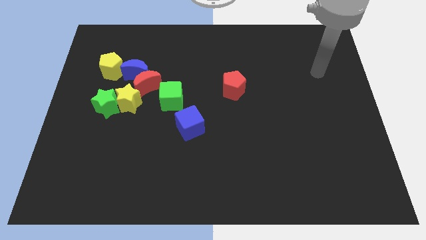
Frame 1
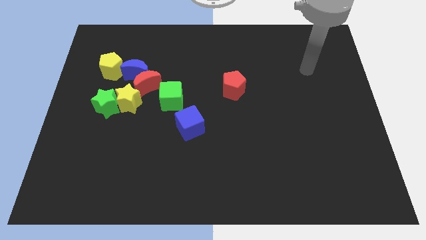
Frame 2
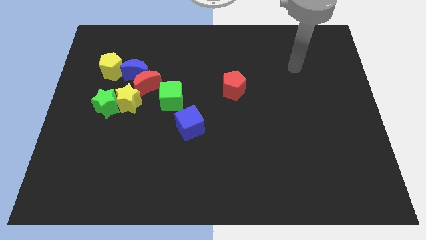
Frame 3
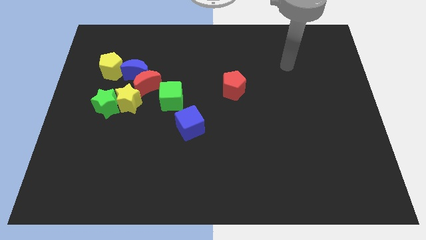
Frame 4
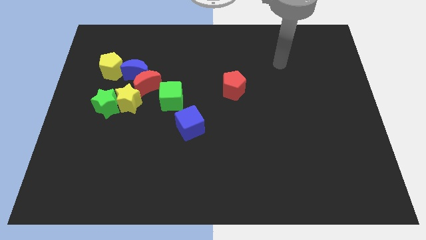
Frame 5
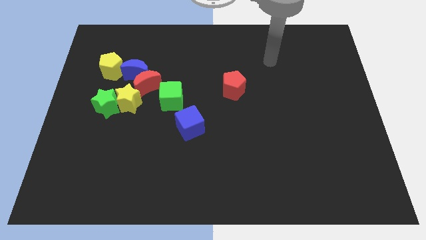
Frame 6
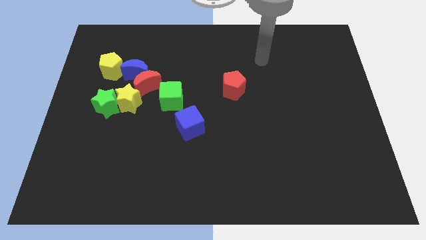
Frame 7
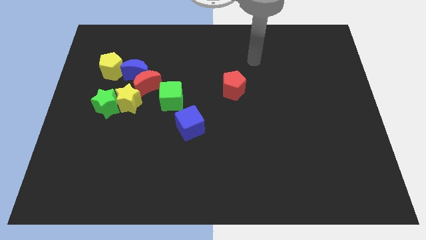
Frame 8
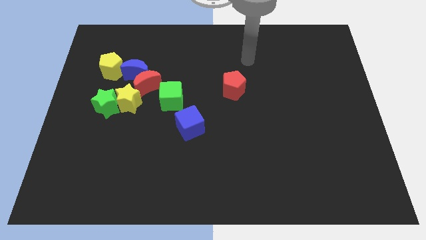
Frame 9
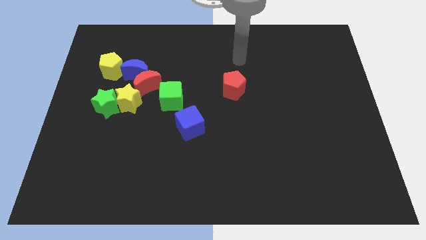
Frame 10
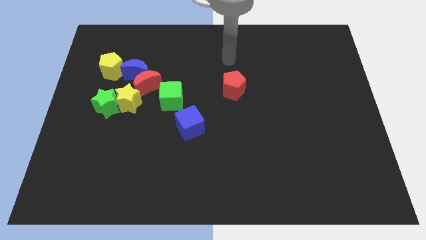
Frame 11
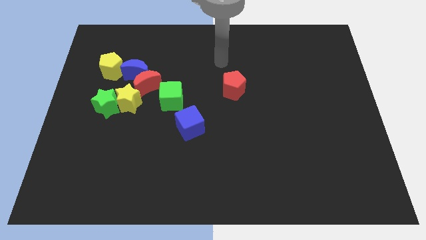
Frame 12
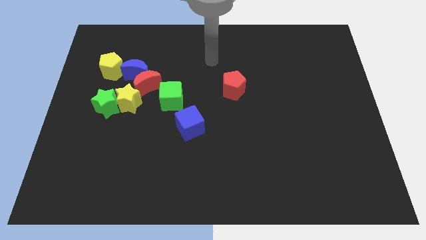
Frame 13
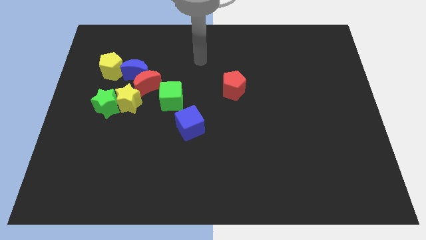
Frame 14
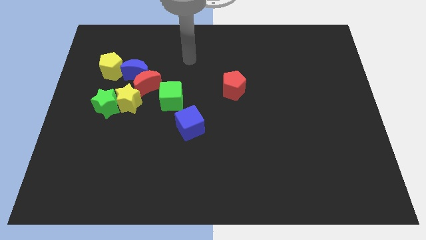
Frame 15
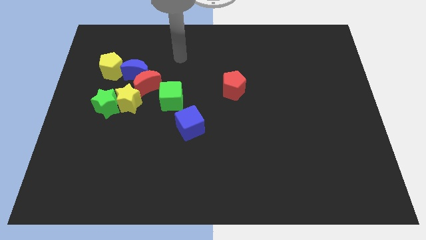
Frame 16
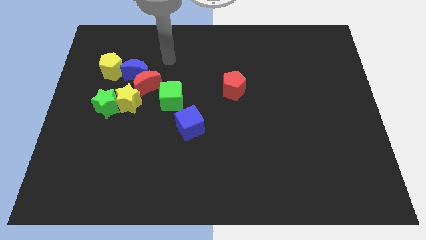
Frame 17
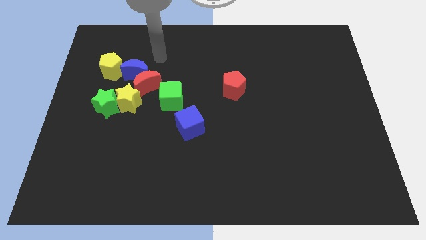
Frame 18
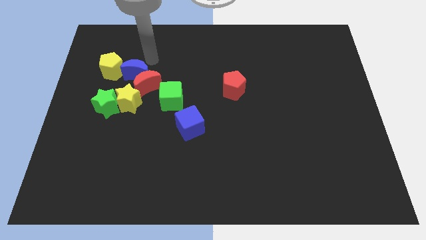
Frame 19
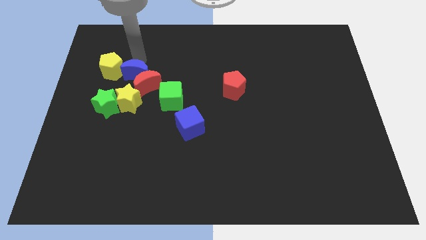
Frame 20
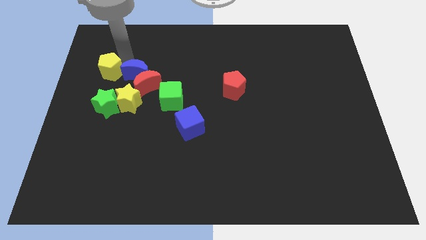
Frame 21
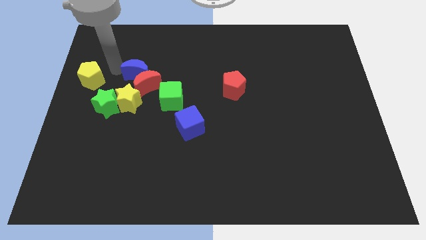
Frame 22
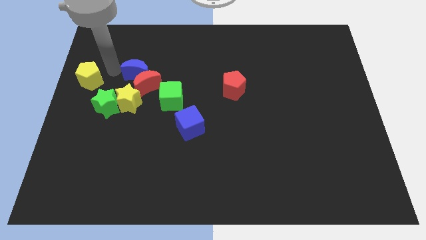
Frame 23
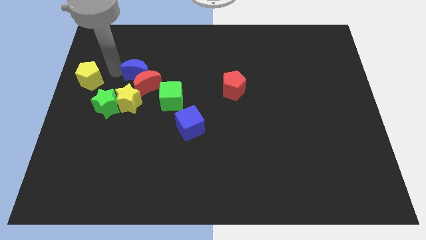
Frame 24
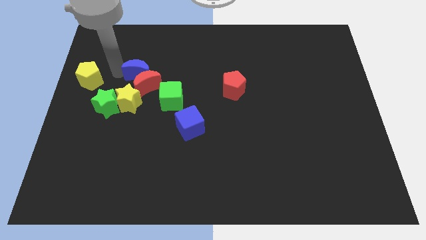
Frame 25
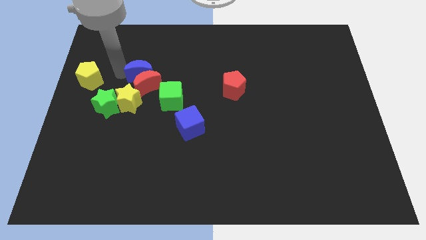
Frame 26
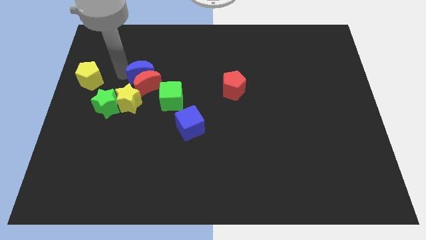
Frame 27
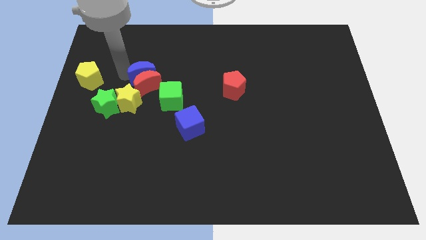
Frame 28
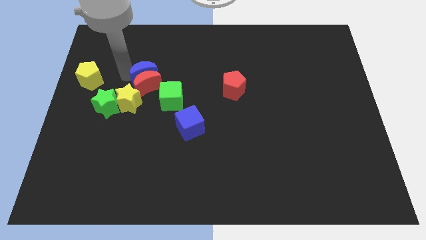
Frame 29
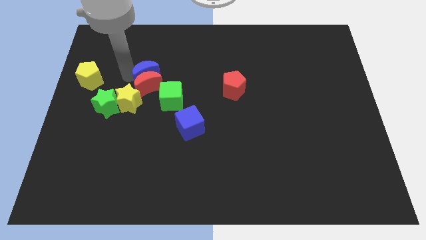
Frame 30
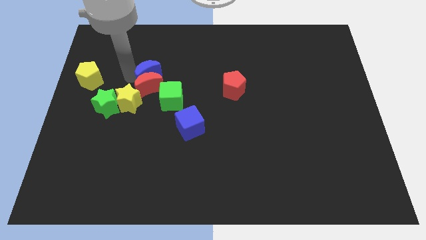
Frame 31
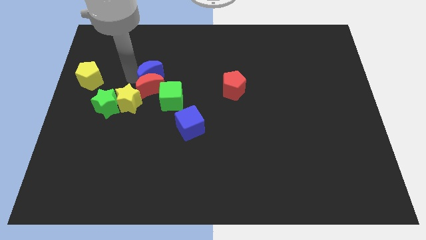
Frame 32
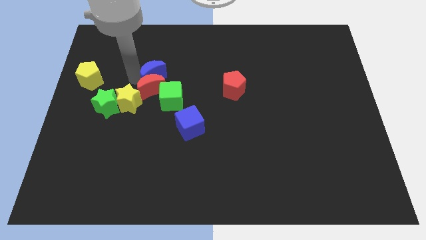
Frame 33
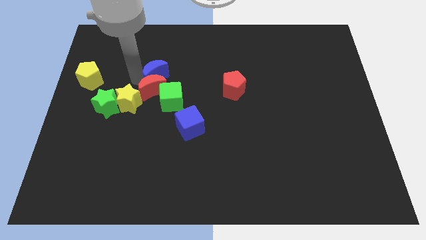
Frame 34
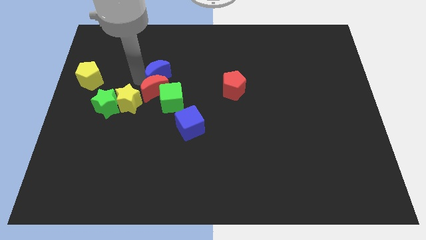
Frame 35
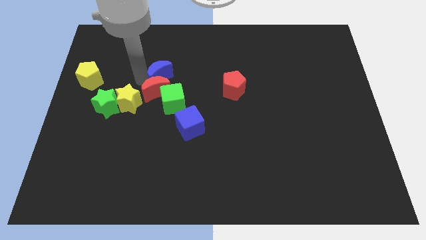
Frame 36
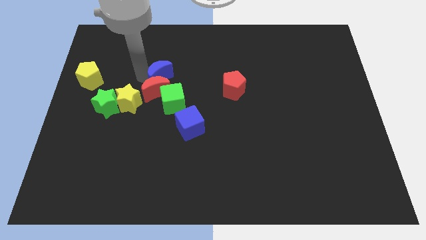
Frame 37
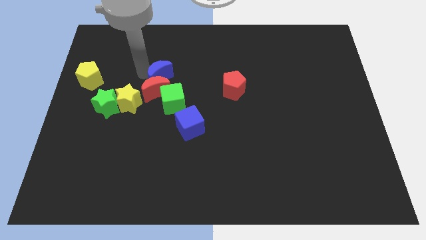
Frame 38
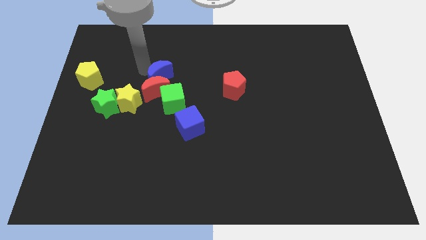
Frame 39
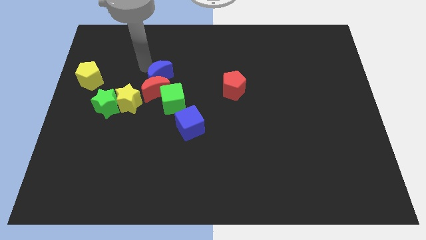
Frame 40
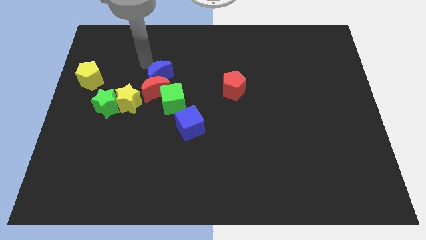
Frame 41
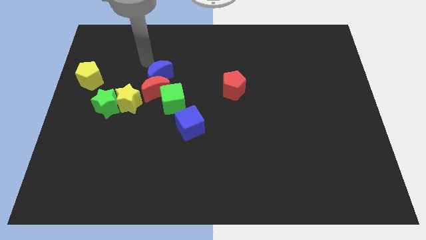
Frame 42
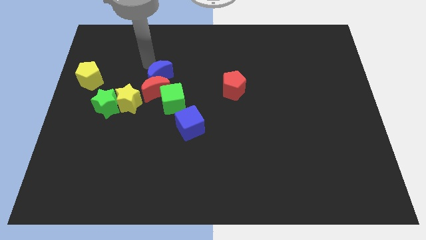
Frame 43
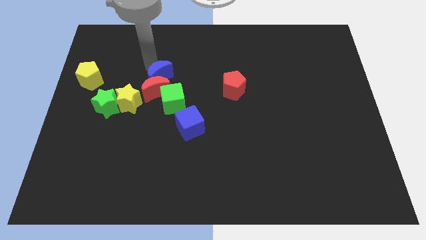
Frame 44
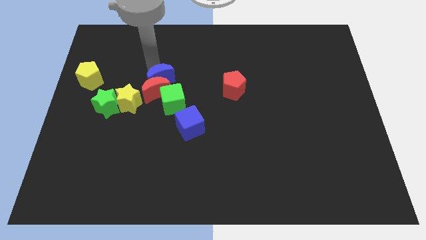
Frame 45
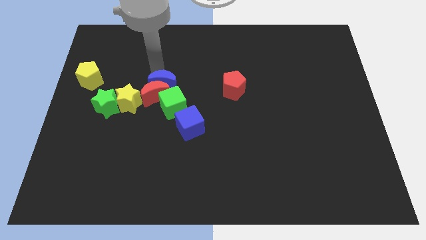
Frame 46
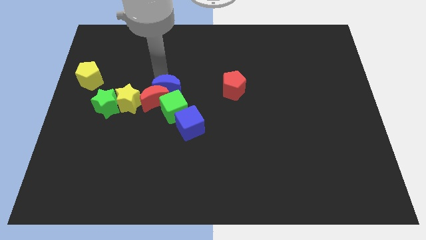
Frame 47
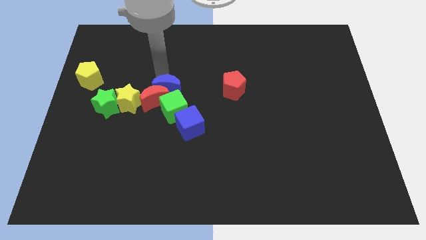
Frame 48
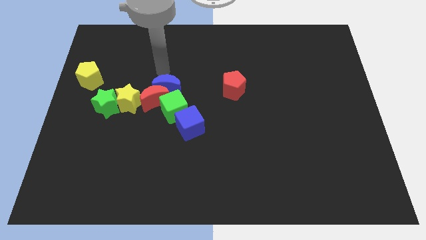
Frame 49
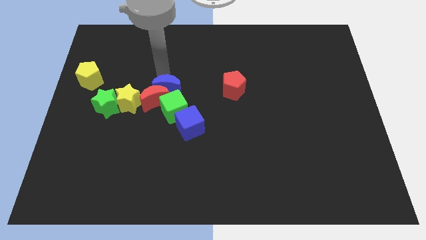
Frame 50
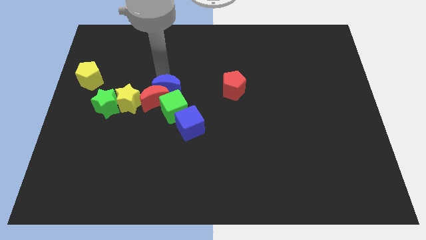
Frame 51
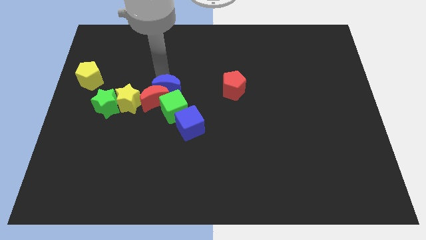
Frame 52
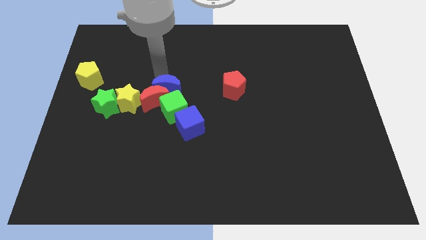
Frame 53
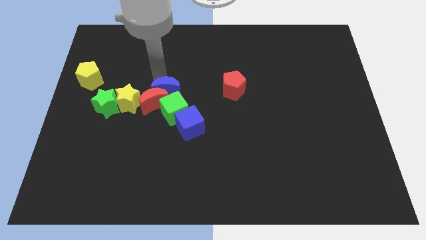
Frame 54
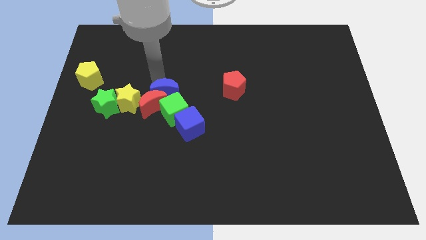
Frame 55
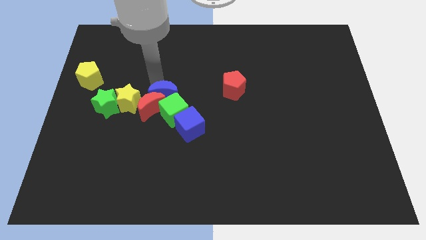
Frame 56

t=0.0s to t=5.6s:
move the blue moon towards the green cube

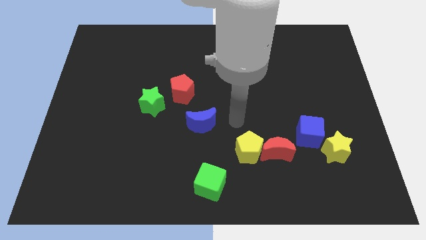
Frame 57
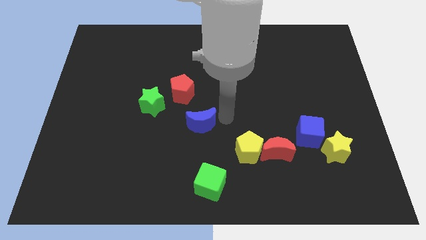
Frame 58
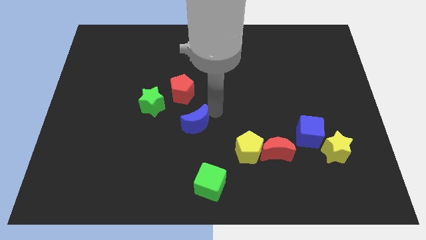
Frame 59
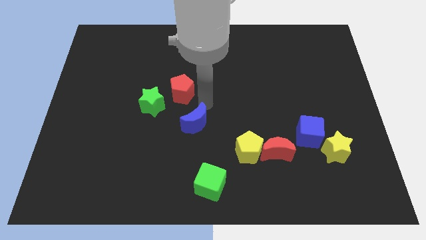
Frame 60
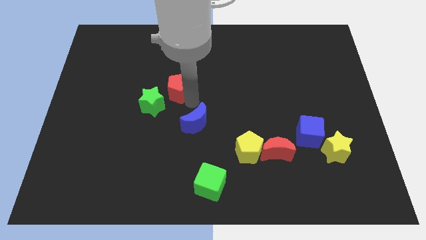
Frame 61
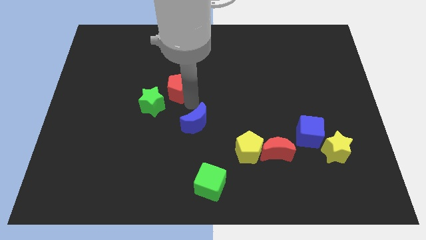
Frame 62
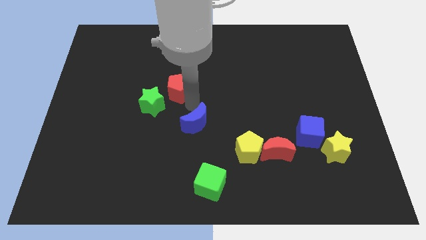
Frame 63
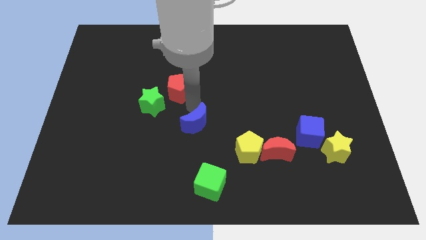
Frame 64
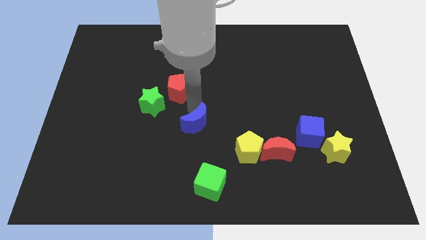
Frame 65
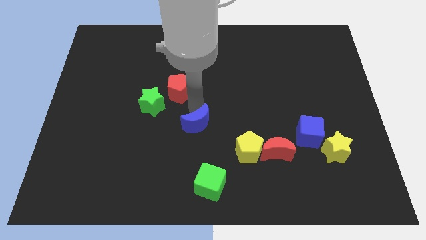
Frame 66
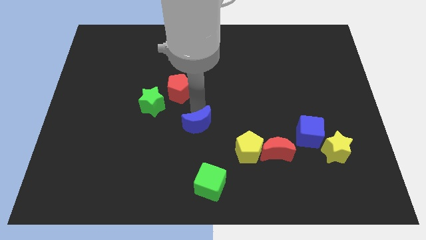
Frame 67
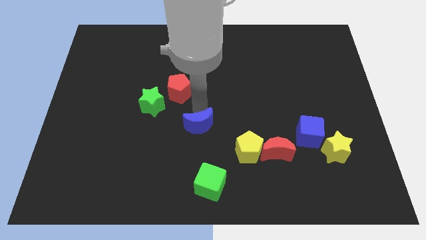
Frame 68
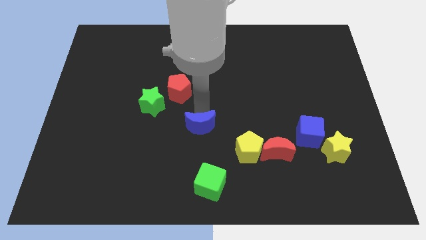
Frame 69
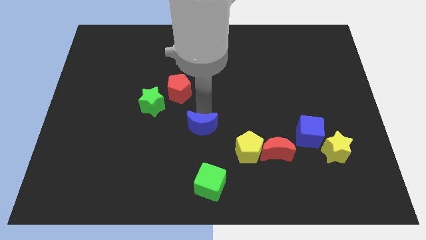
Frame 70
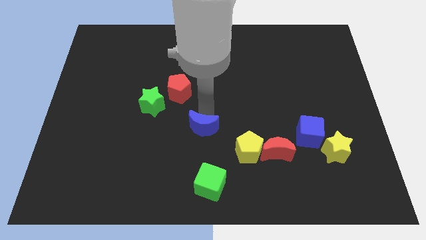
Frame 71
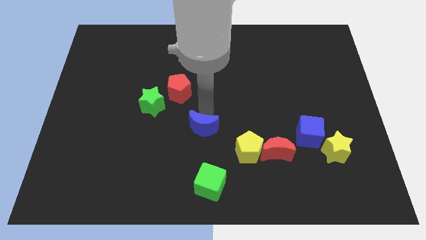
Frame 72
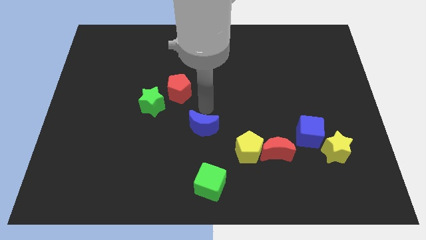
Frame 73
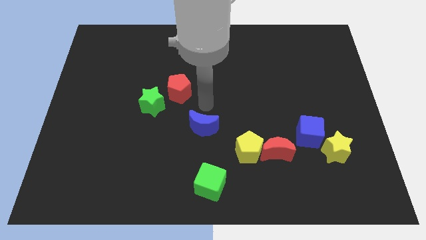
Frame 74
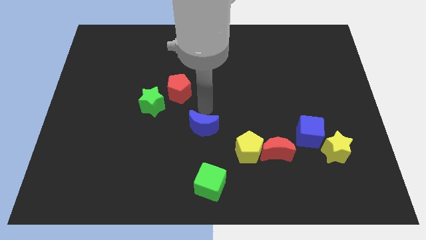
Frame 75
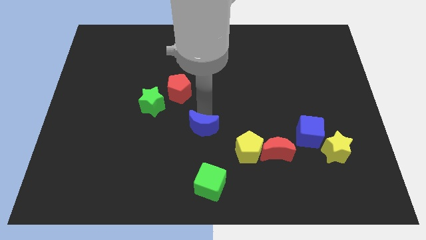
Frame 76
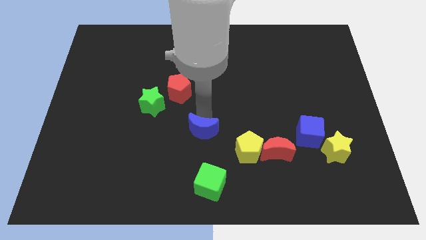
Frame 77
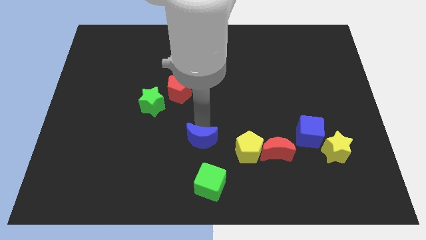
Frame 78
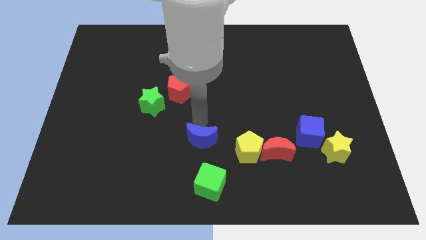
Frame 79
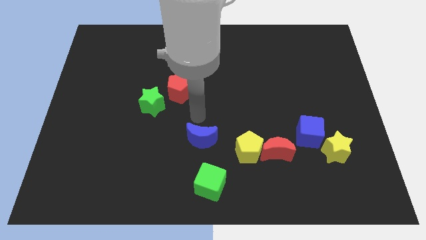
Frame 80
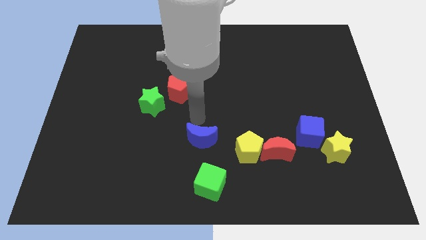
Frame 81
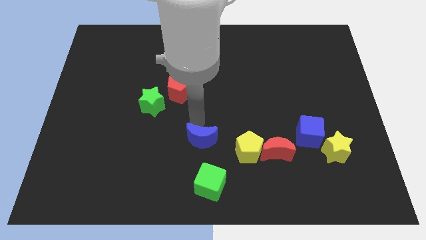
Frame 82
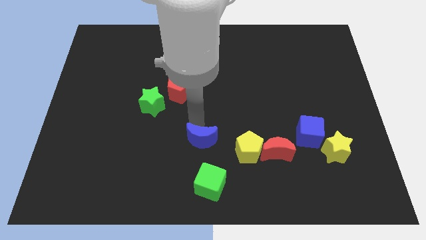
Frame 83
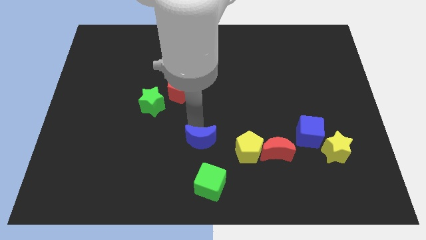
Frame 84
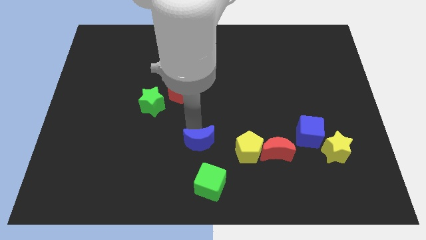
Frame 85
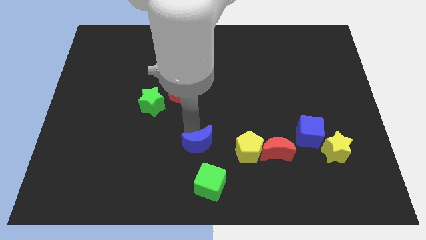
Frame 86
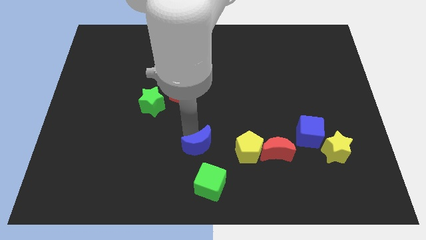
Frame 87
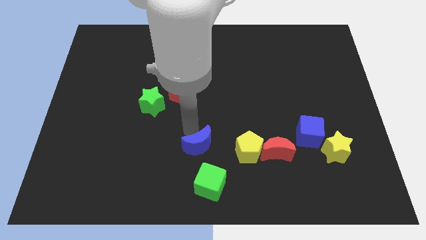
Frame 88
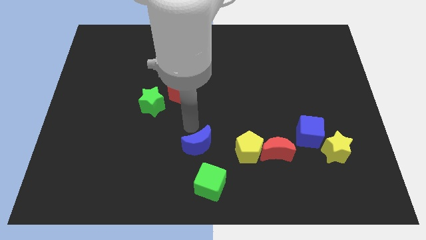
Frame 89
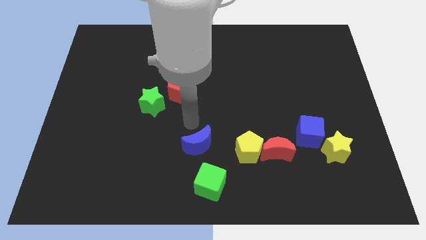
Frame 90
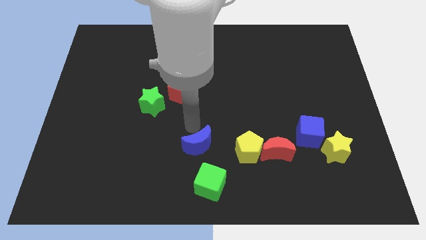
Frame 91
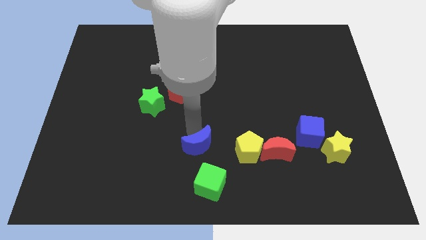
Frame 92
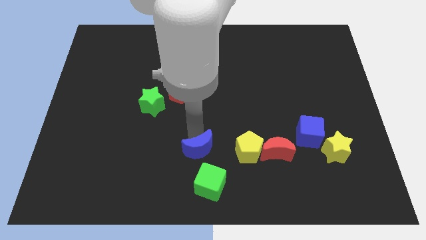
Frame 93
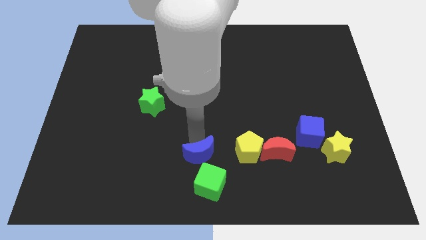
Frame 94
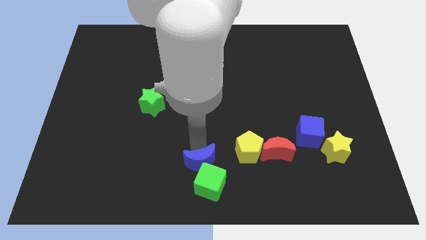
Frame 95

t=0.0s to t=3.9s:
slide the blue moon to the green cube
